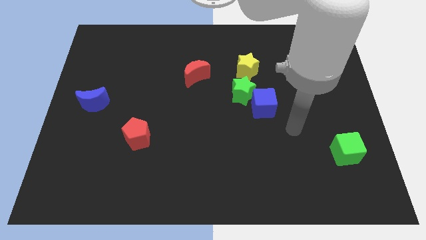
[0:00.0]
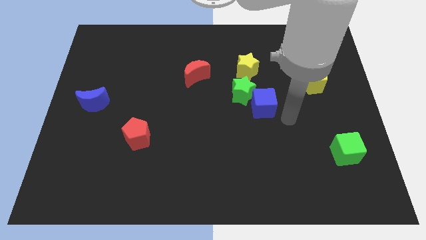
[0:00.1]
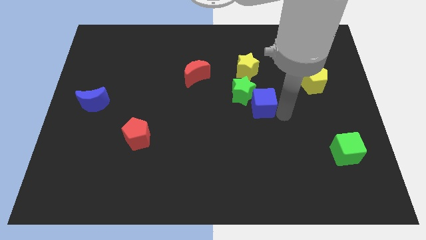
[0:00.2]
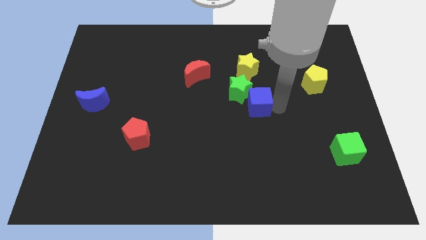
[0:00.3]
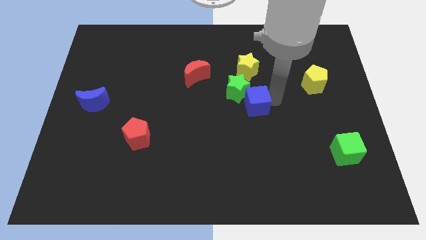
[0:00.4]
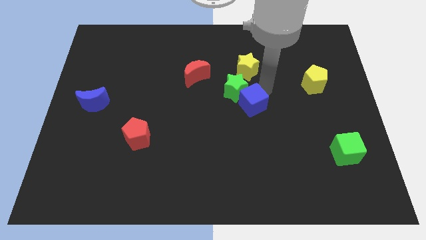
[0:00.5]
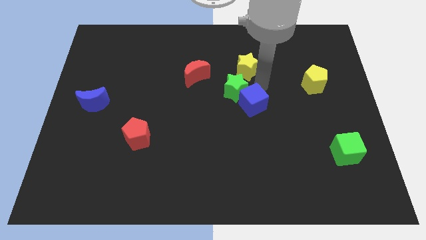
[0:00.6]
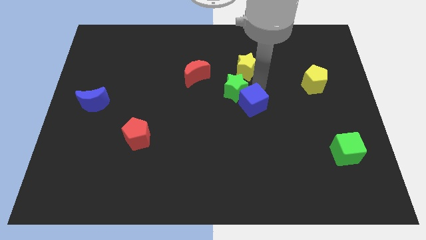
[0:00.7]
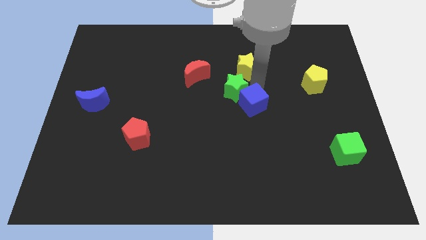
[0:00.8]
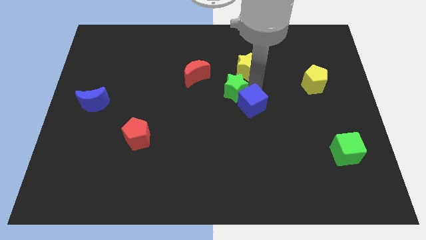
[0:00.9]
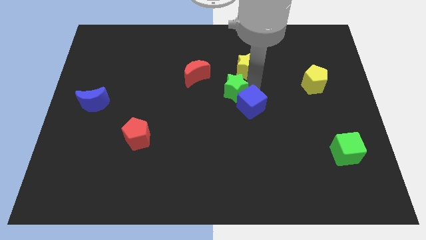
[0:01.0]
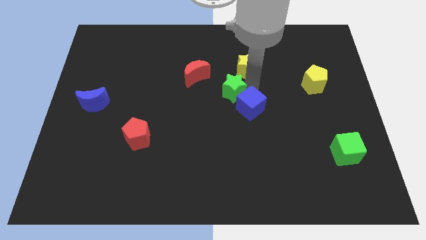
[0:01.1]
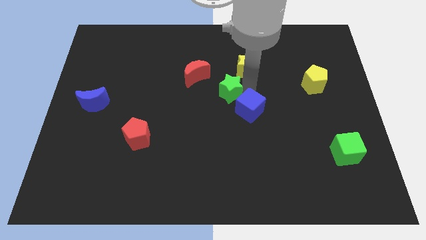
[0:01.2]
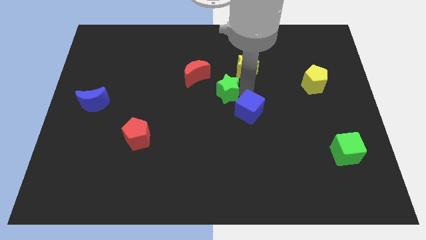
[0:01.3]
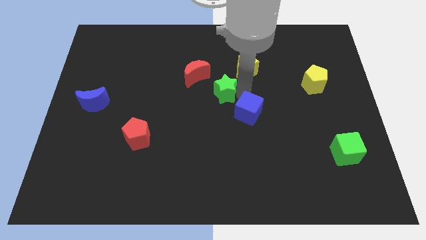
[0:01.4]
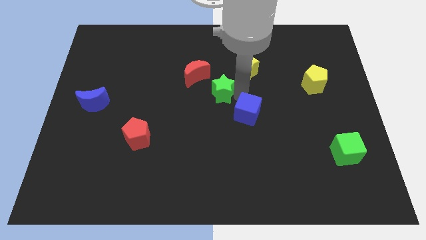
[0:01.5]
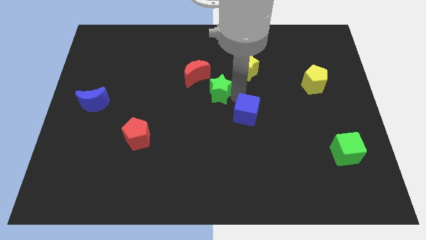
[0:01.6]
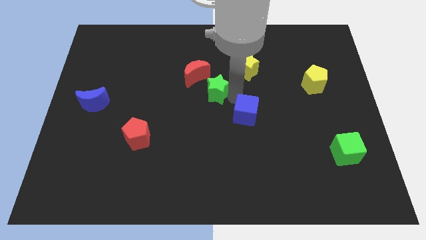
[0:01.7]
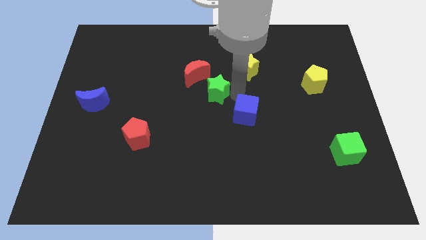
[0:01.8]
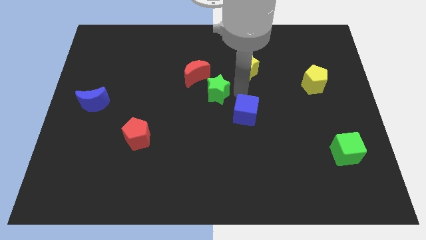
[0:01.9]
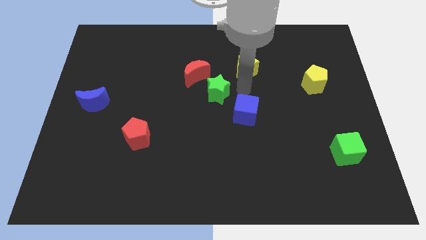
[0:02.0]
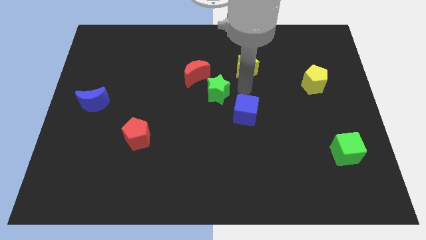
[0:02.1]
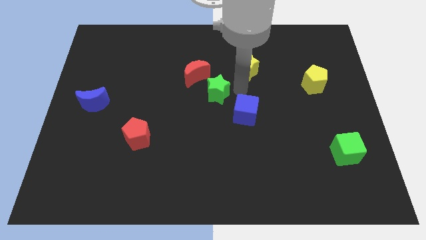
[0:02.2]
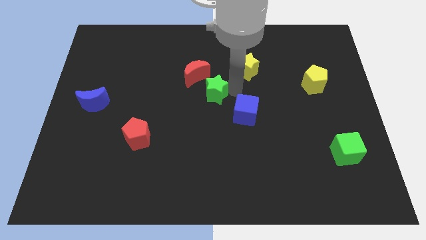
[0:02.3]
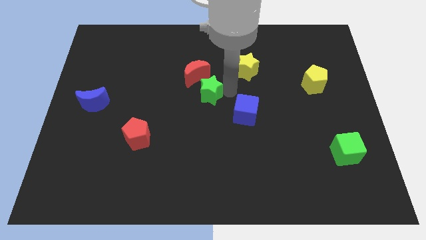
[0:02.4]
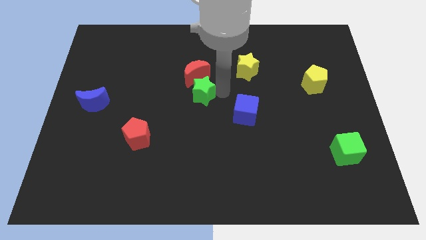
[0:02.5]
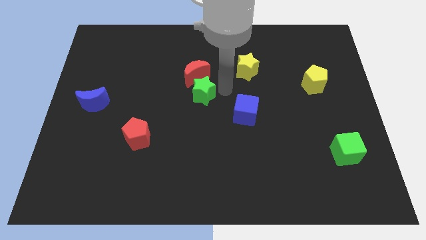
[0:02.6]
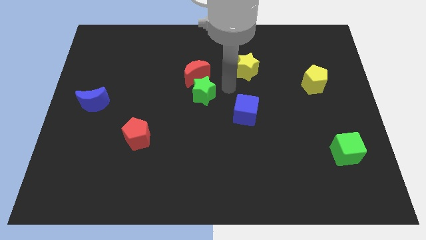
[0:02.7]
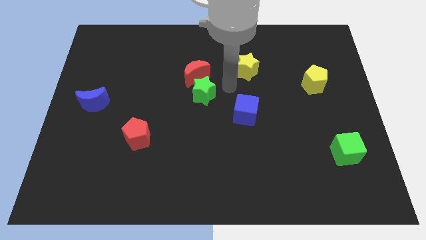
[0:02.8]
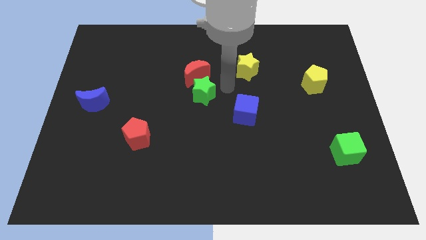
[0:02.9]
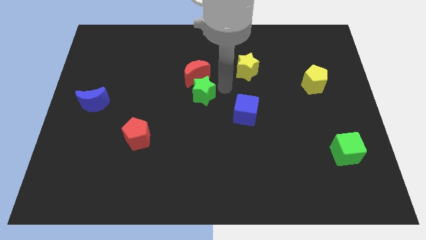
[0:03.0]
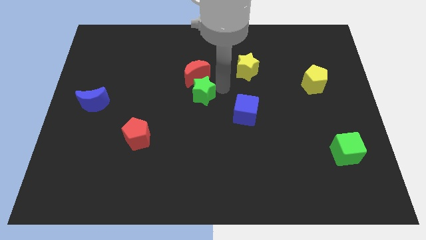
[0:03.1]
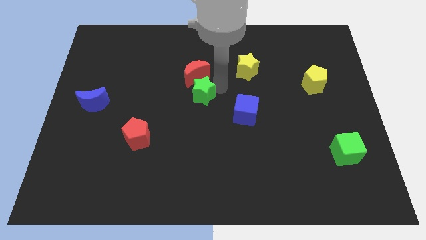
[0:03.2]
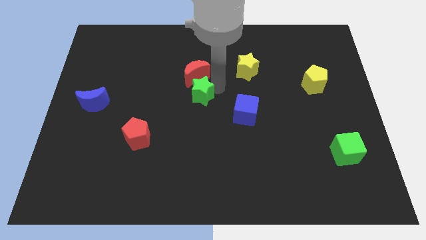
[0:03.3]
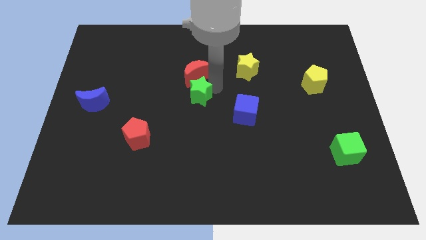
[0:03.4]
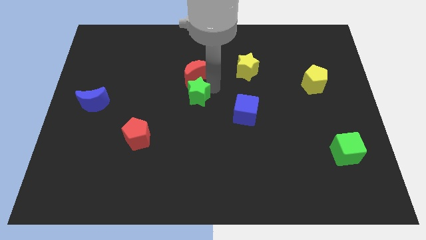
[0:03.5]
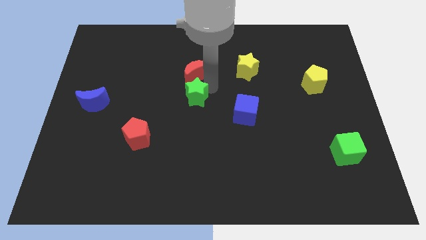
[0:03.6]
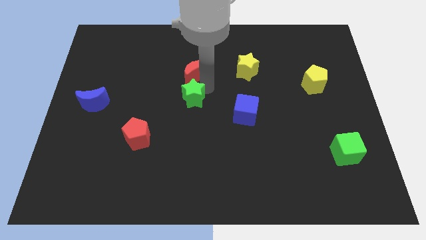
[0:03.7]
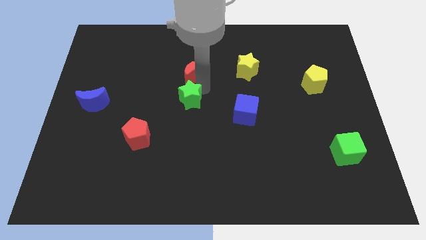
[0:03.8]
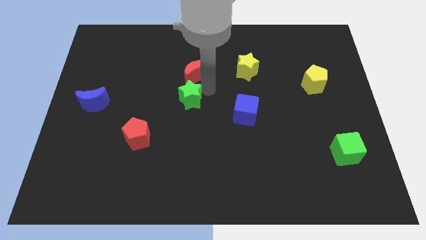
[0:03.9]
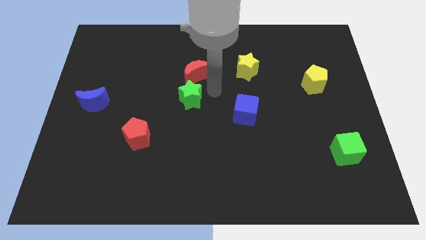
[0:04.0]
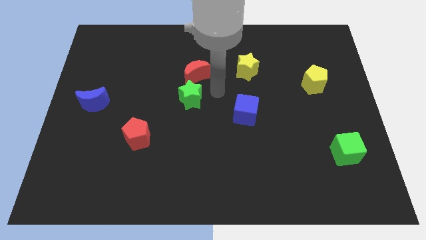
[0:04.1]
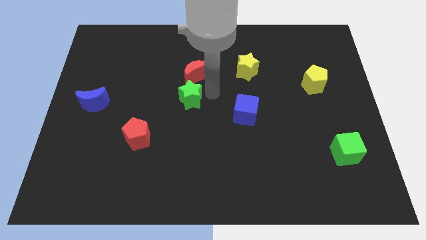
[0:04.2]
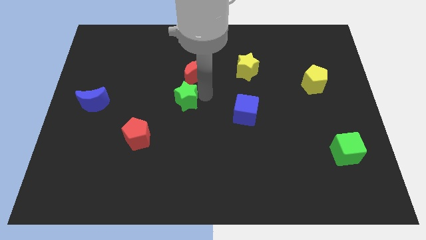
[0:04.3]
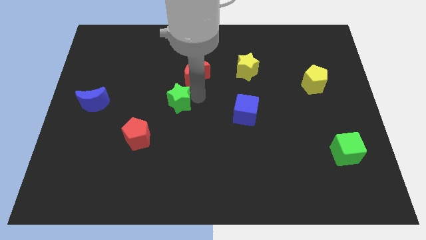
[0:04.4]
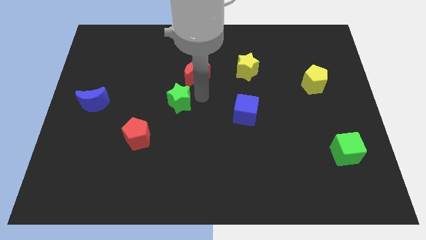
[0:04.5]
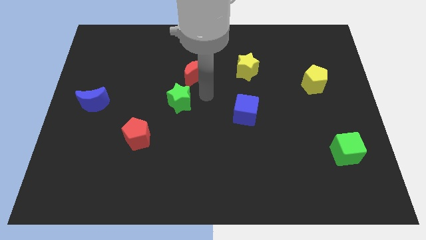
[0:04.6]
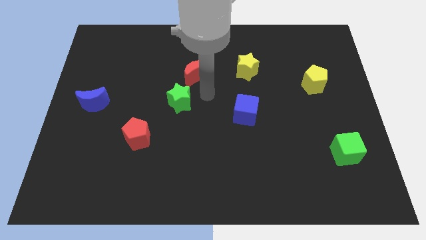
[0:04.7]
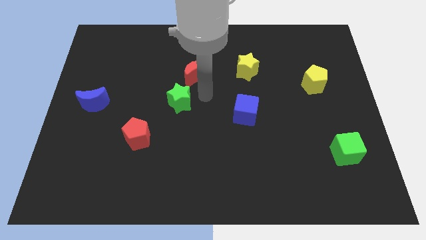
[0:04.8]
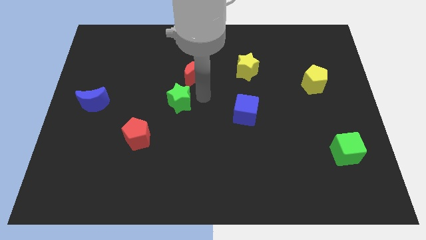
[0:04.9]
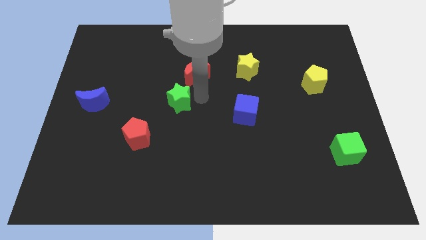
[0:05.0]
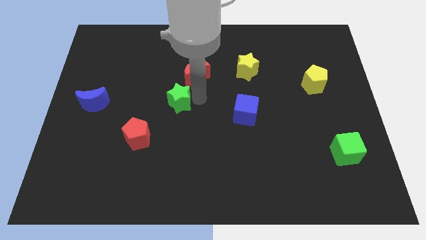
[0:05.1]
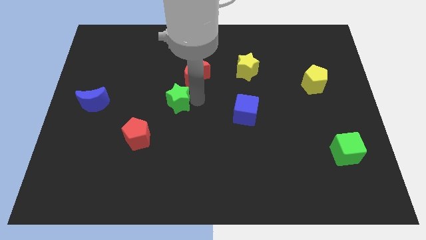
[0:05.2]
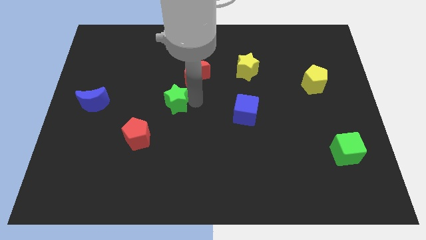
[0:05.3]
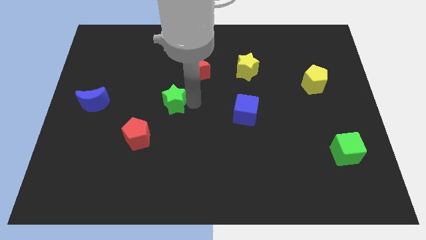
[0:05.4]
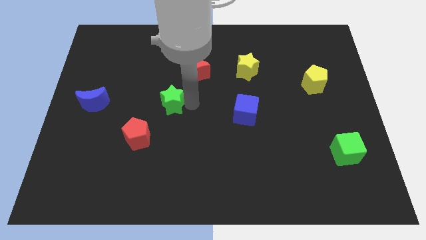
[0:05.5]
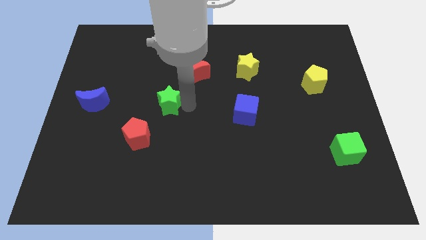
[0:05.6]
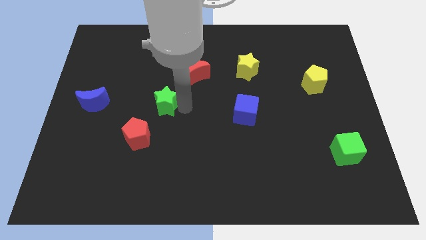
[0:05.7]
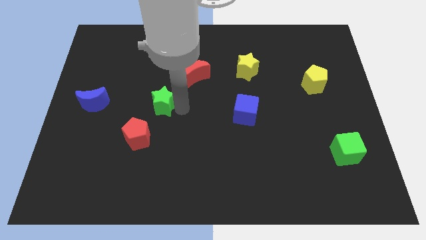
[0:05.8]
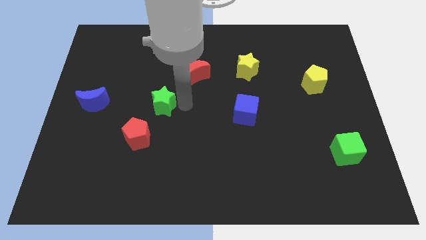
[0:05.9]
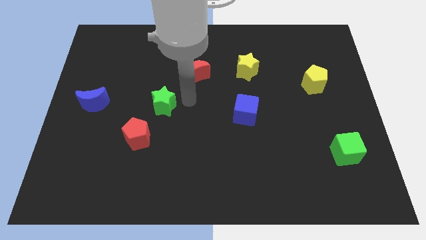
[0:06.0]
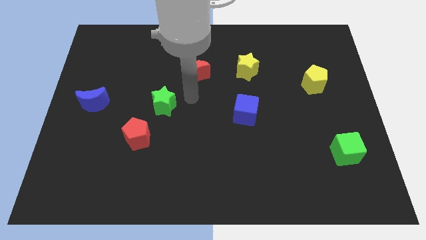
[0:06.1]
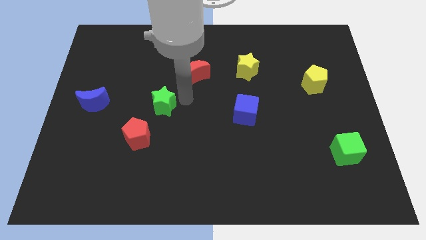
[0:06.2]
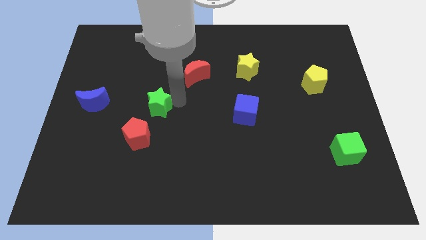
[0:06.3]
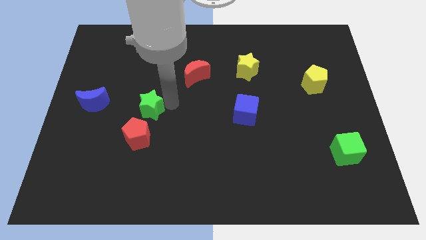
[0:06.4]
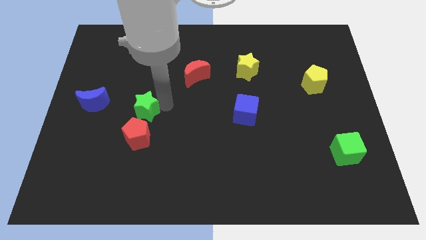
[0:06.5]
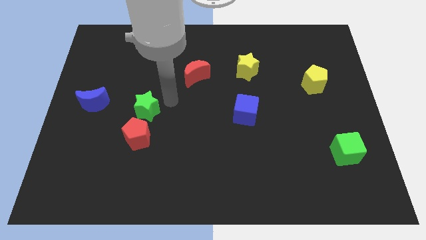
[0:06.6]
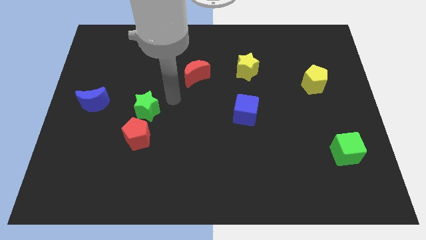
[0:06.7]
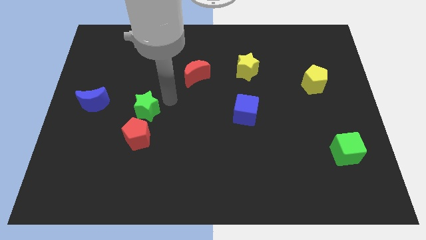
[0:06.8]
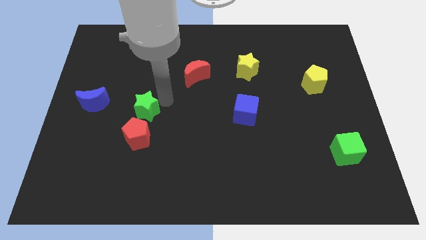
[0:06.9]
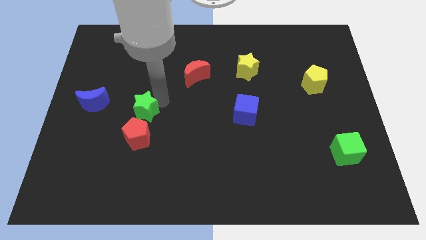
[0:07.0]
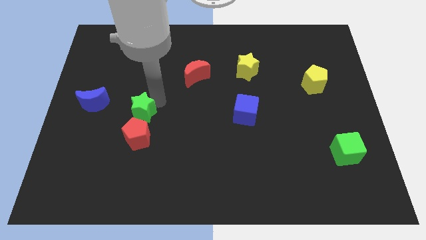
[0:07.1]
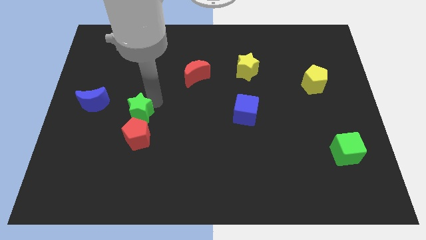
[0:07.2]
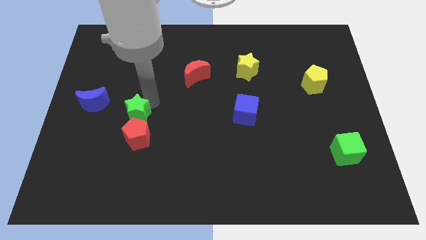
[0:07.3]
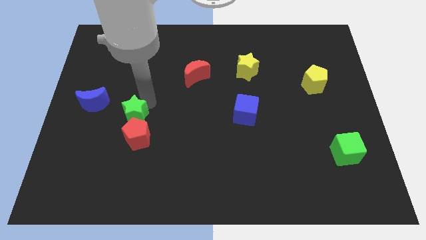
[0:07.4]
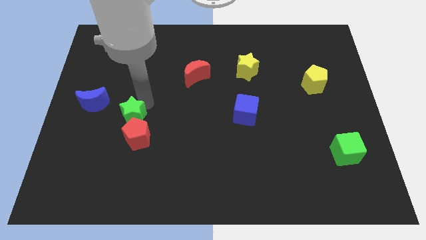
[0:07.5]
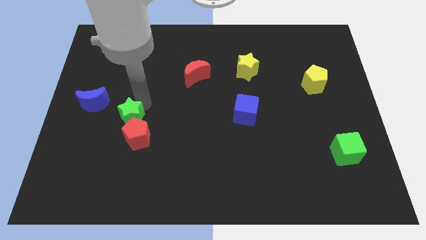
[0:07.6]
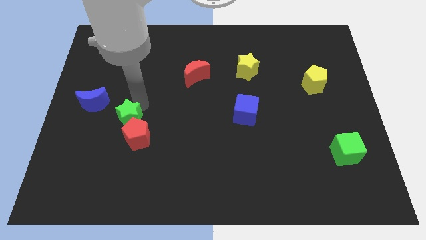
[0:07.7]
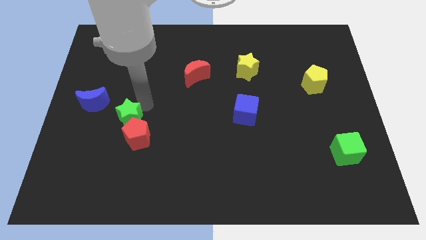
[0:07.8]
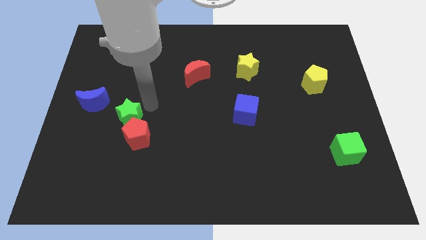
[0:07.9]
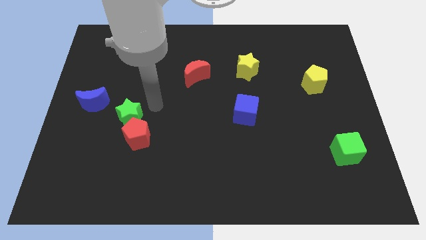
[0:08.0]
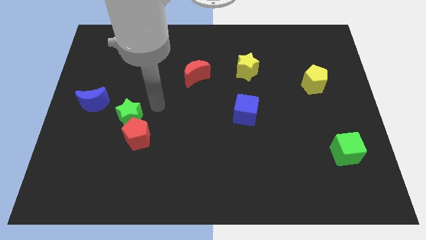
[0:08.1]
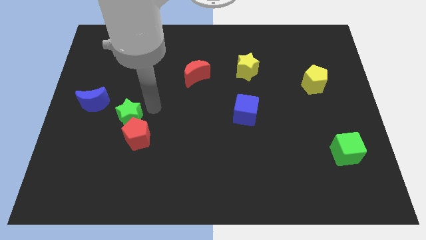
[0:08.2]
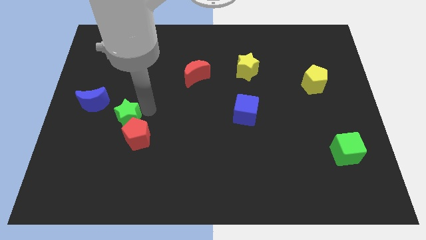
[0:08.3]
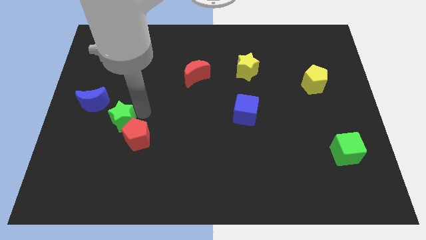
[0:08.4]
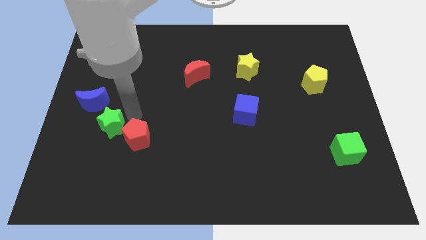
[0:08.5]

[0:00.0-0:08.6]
push the green star to the left side of the red pentagon
